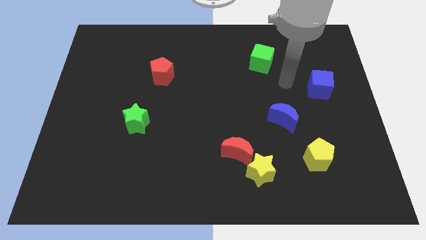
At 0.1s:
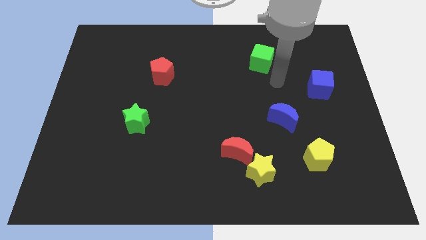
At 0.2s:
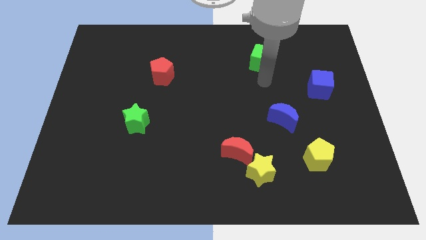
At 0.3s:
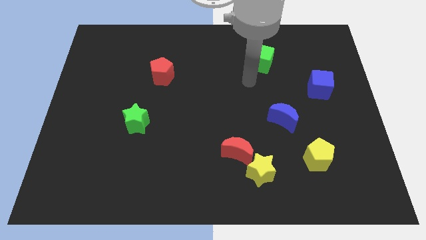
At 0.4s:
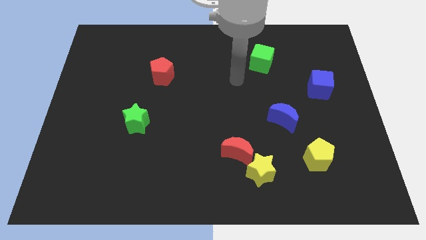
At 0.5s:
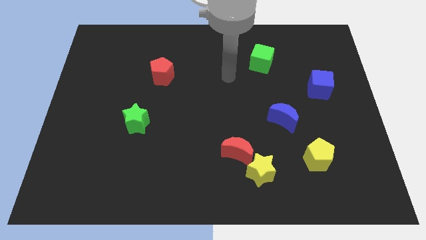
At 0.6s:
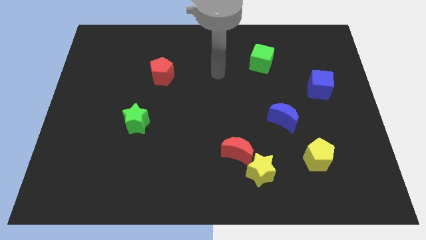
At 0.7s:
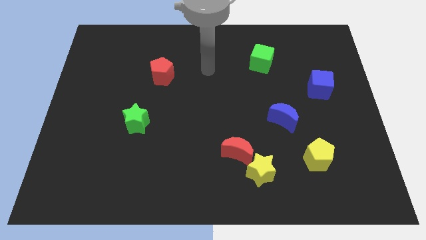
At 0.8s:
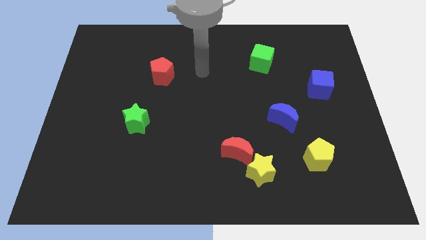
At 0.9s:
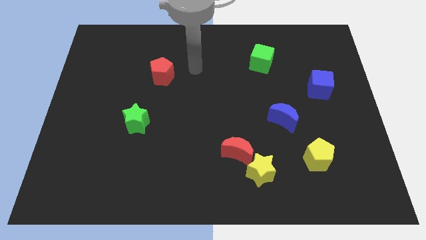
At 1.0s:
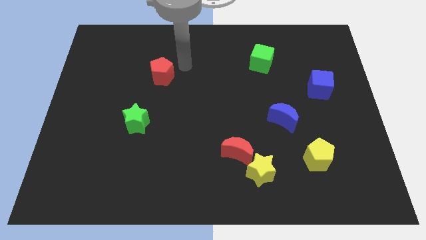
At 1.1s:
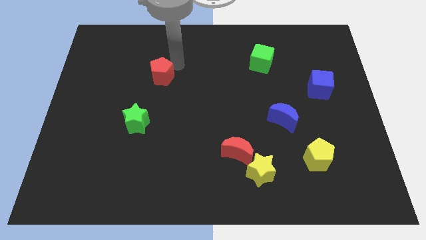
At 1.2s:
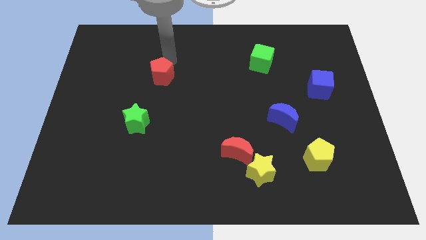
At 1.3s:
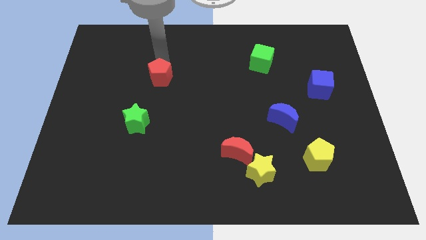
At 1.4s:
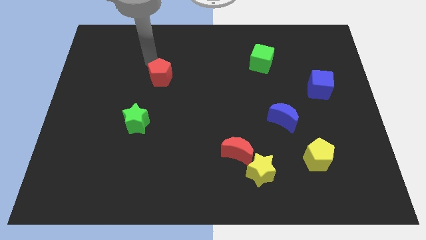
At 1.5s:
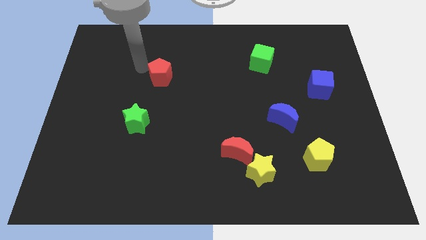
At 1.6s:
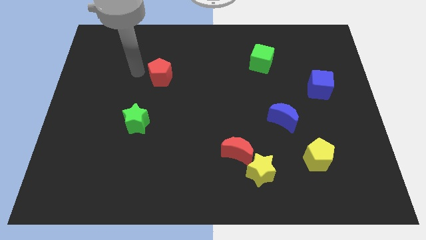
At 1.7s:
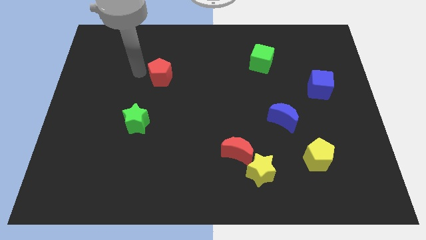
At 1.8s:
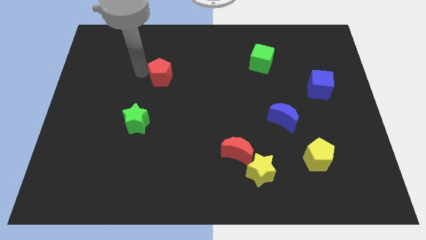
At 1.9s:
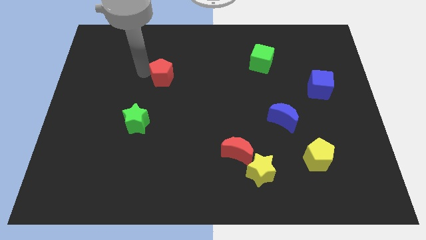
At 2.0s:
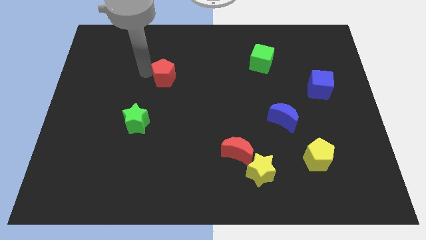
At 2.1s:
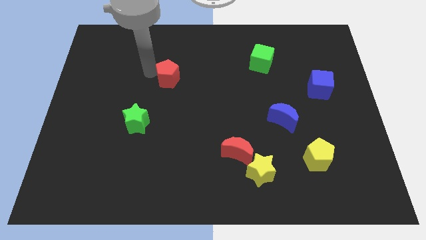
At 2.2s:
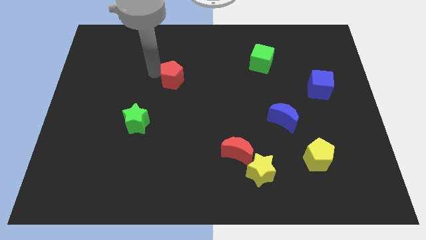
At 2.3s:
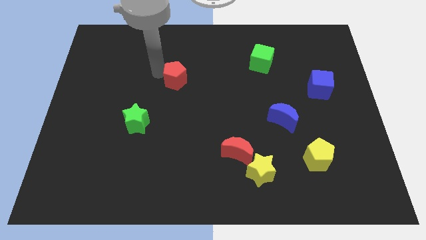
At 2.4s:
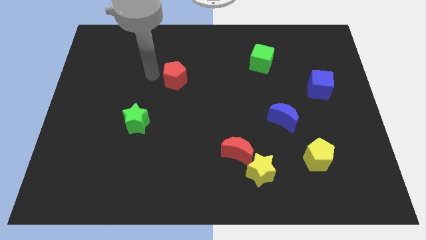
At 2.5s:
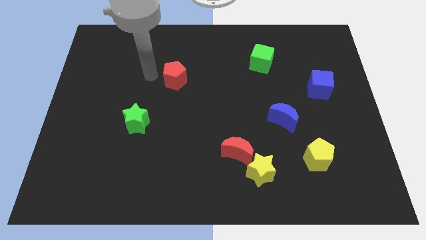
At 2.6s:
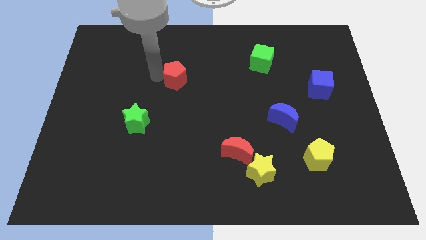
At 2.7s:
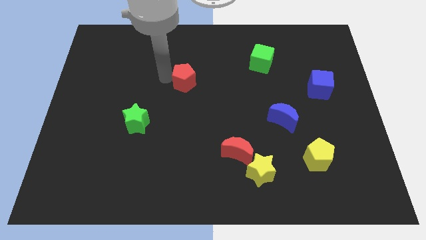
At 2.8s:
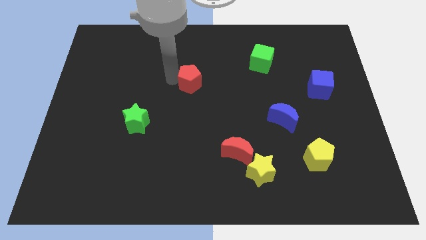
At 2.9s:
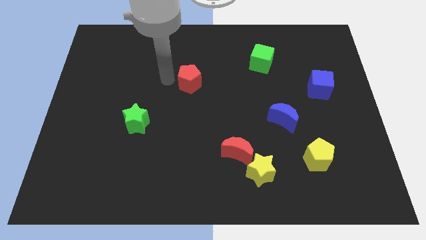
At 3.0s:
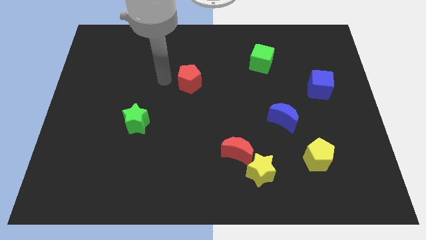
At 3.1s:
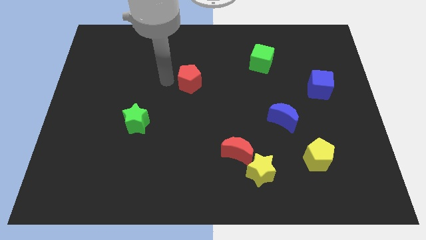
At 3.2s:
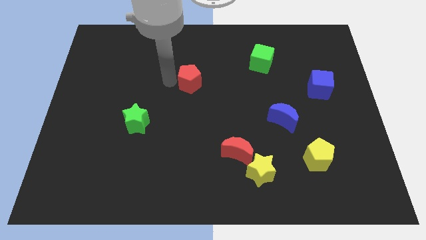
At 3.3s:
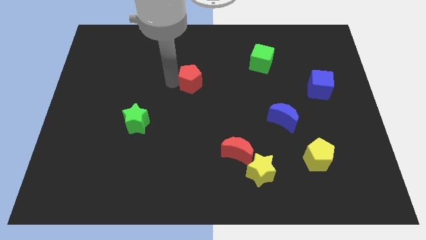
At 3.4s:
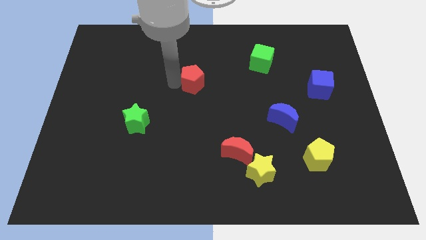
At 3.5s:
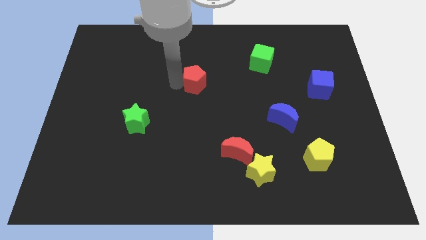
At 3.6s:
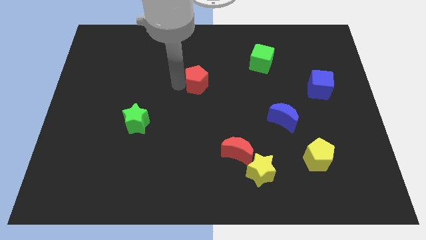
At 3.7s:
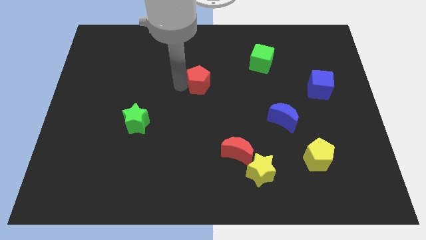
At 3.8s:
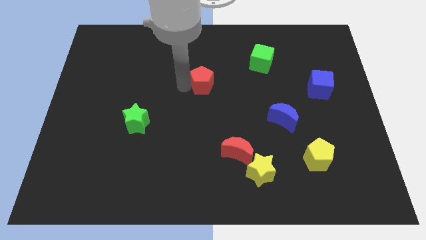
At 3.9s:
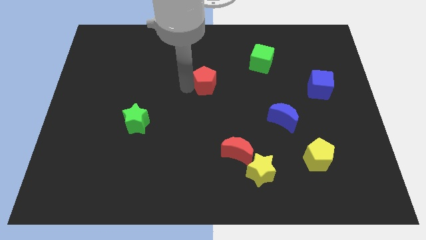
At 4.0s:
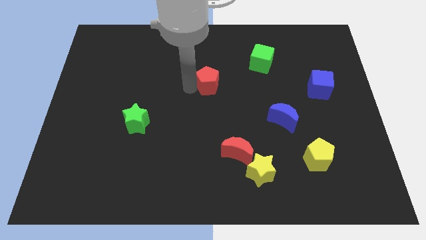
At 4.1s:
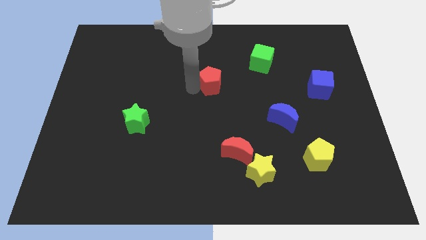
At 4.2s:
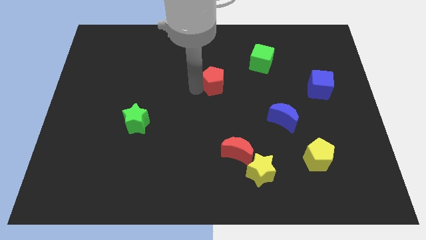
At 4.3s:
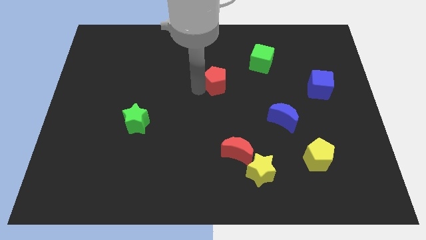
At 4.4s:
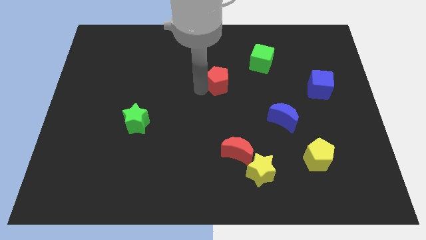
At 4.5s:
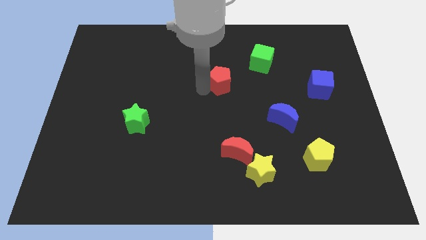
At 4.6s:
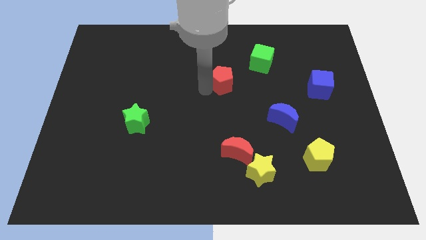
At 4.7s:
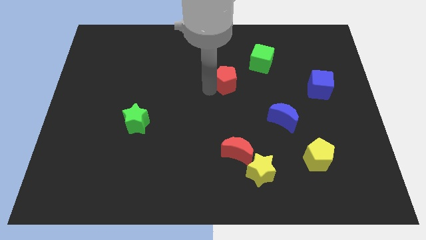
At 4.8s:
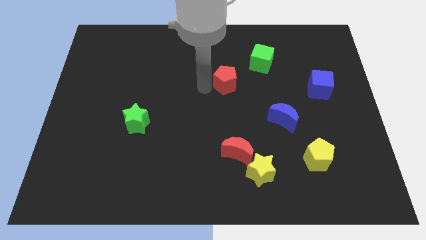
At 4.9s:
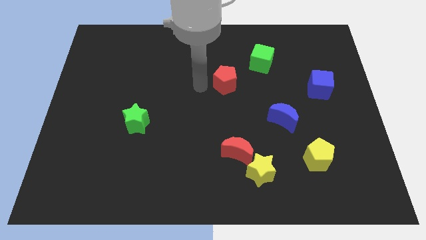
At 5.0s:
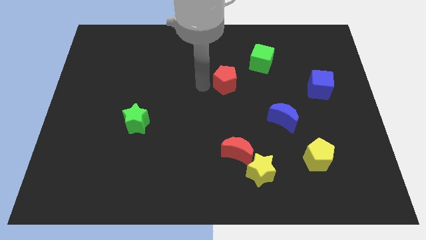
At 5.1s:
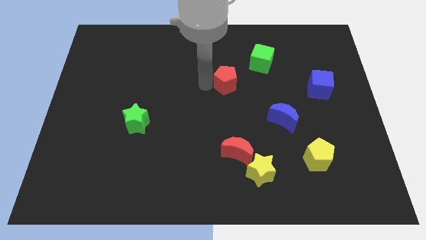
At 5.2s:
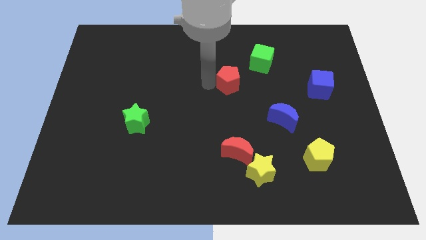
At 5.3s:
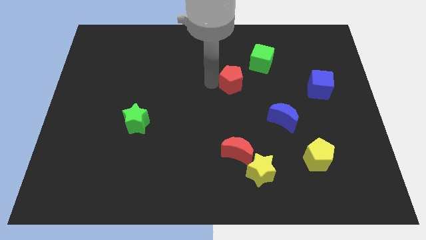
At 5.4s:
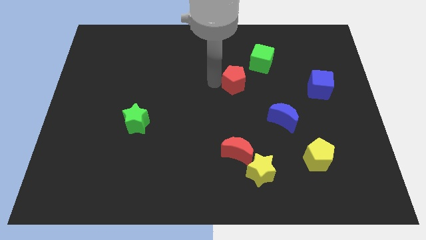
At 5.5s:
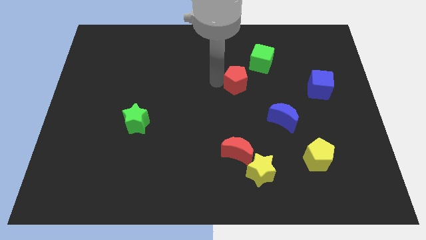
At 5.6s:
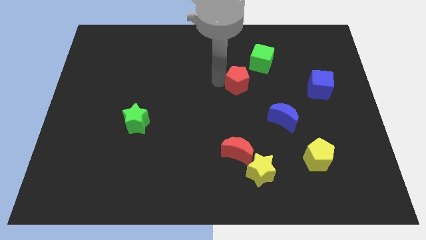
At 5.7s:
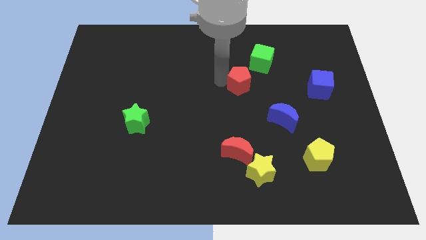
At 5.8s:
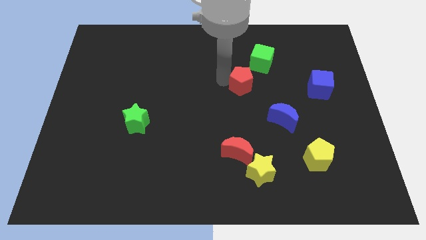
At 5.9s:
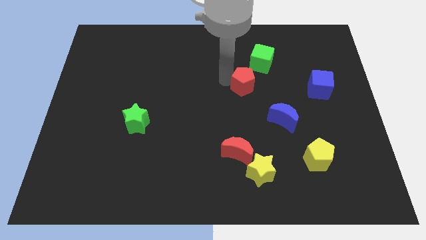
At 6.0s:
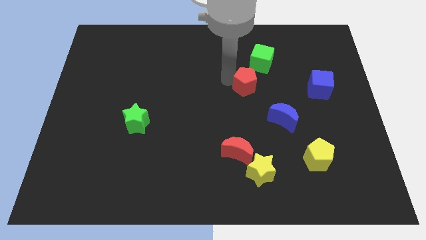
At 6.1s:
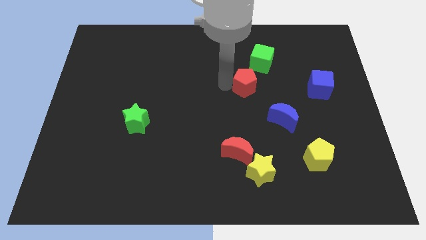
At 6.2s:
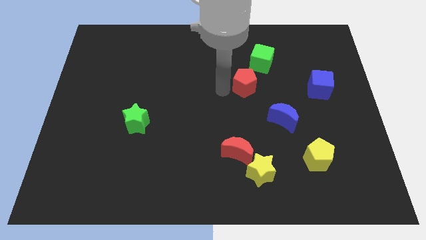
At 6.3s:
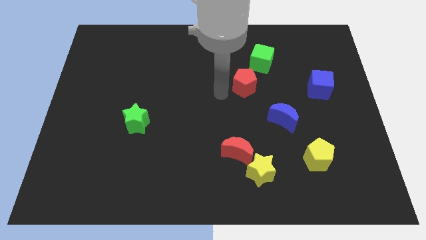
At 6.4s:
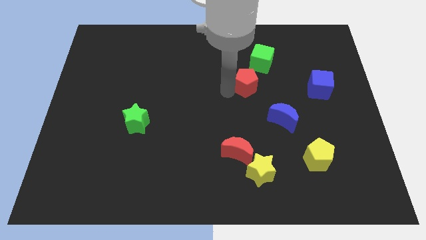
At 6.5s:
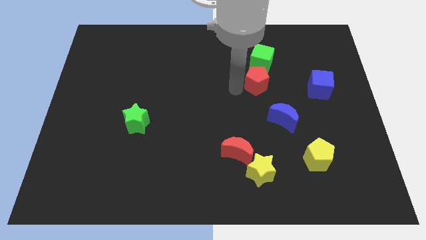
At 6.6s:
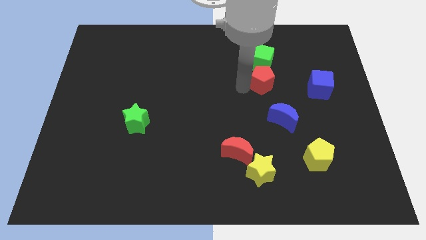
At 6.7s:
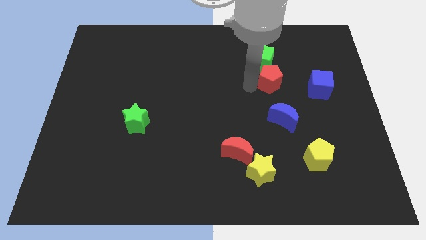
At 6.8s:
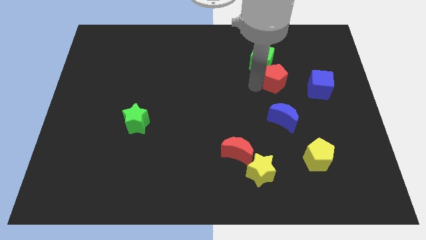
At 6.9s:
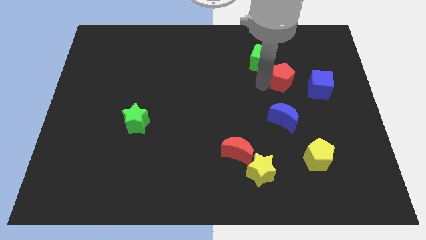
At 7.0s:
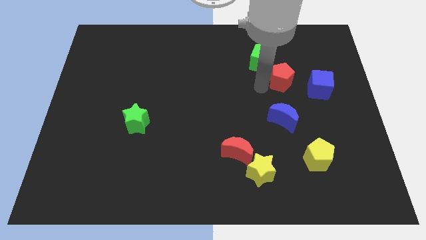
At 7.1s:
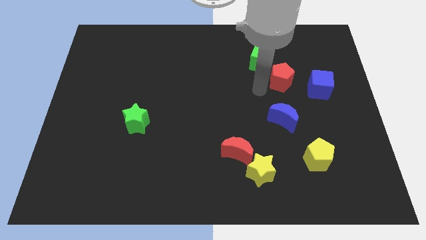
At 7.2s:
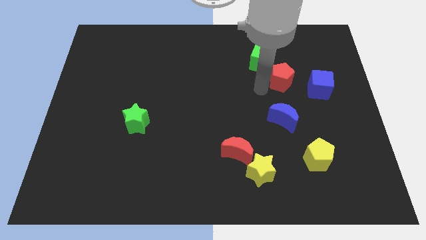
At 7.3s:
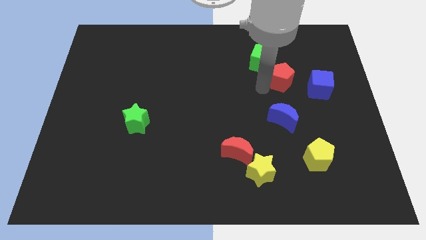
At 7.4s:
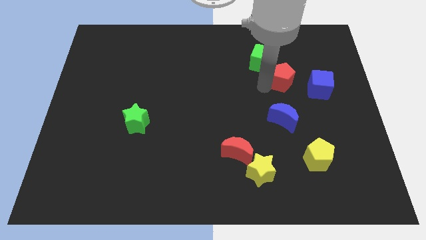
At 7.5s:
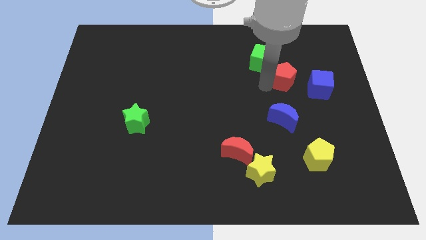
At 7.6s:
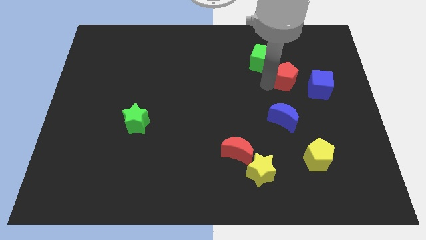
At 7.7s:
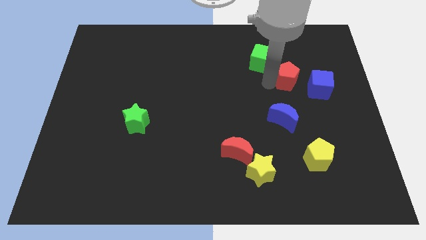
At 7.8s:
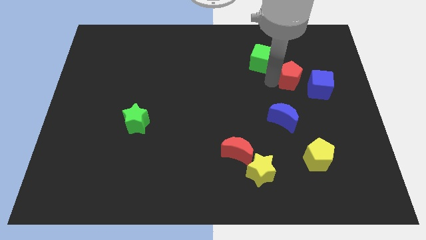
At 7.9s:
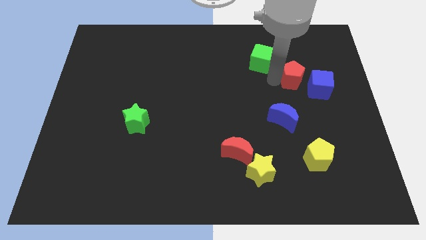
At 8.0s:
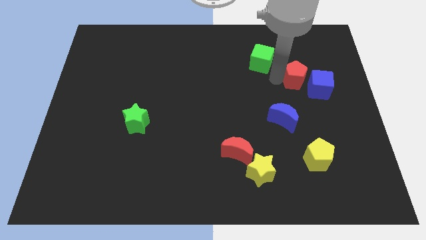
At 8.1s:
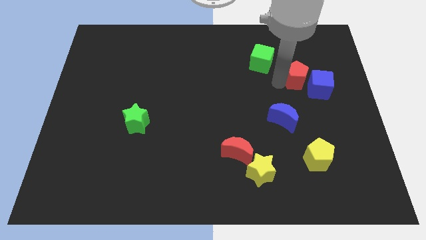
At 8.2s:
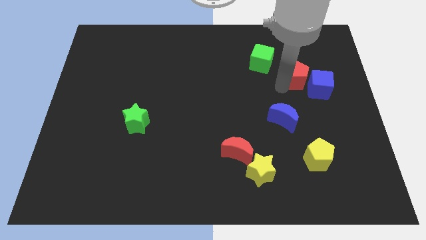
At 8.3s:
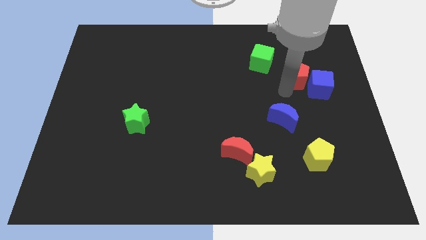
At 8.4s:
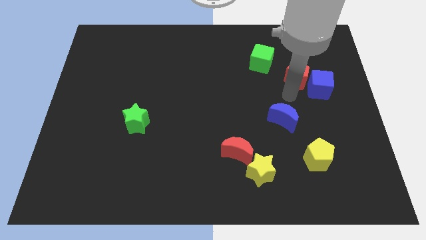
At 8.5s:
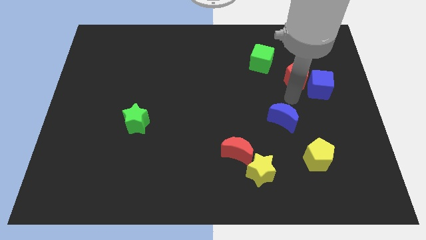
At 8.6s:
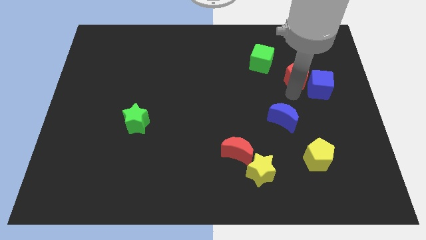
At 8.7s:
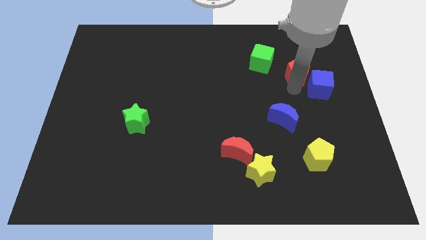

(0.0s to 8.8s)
put the red pentagon just right of the green cube
